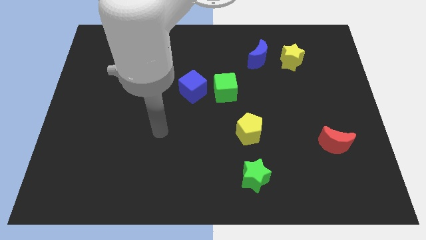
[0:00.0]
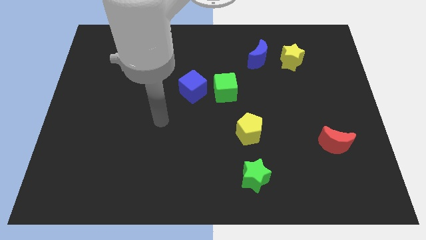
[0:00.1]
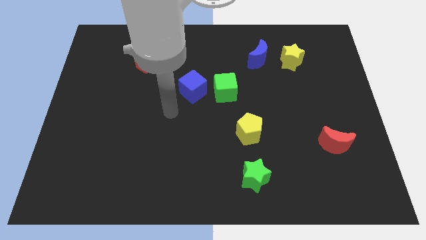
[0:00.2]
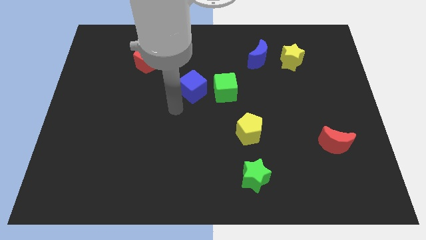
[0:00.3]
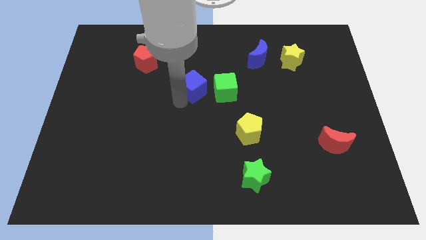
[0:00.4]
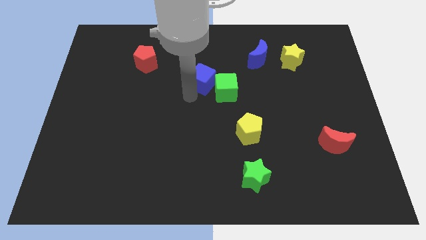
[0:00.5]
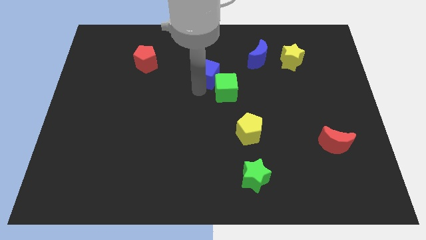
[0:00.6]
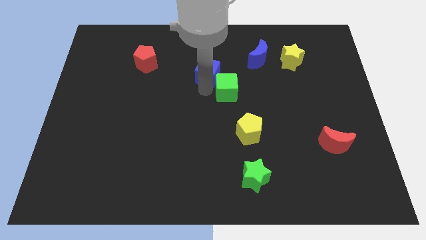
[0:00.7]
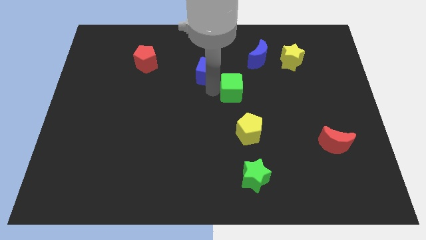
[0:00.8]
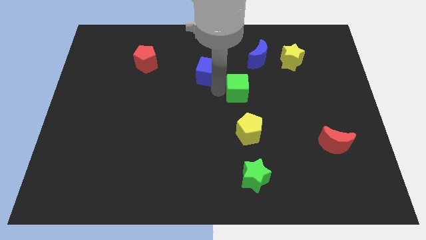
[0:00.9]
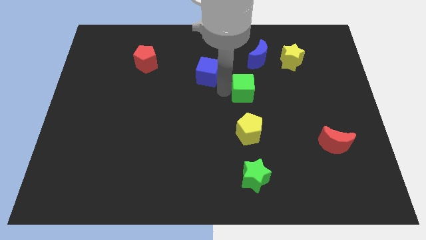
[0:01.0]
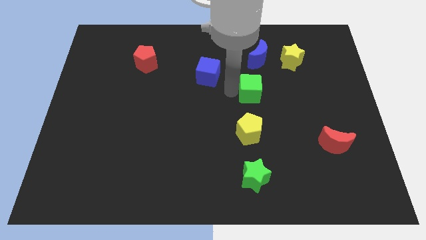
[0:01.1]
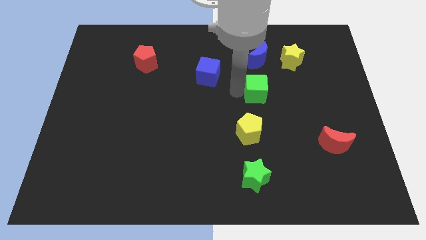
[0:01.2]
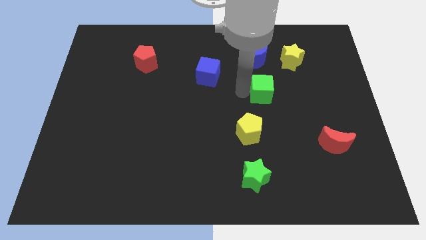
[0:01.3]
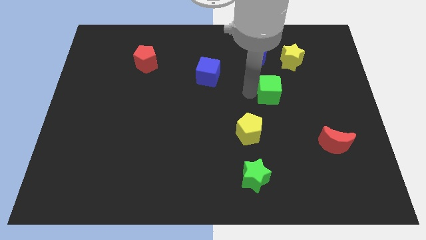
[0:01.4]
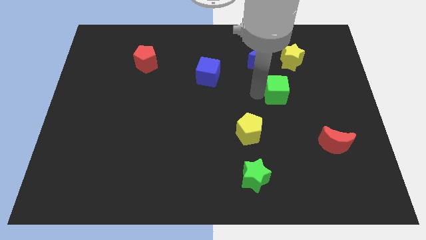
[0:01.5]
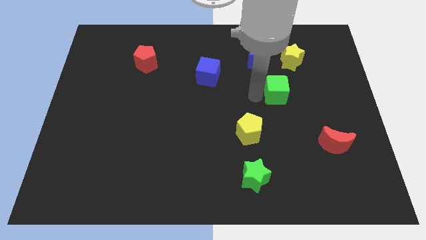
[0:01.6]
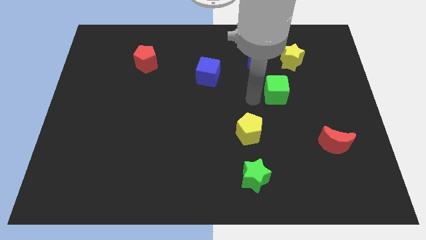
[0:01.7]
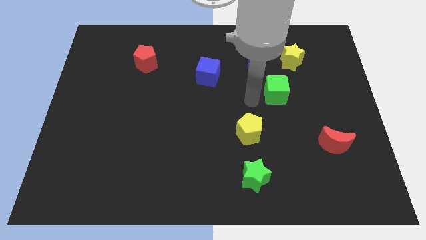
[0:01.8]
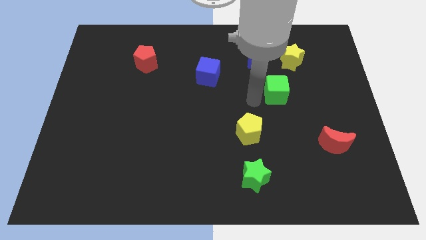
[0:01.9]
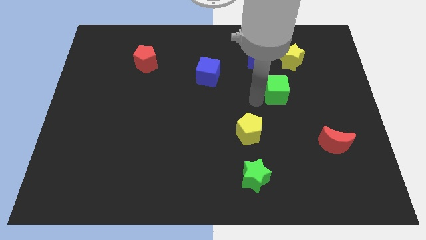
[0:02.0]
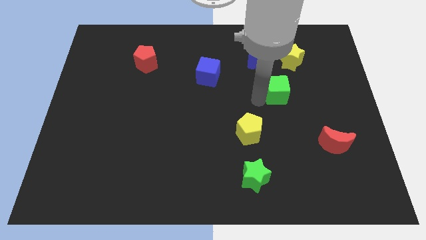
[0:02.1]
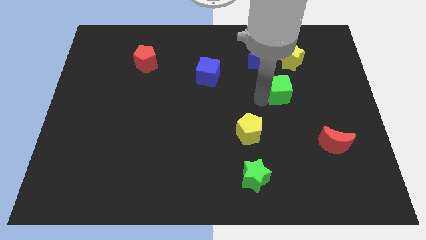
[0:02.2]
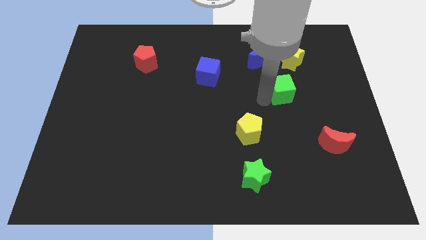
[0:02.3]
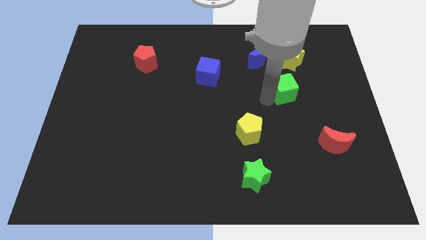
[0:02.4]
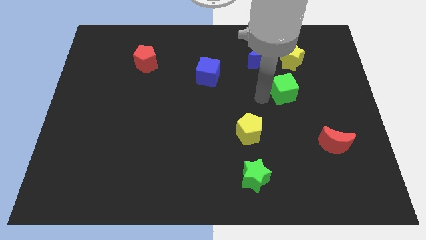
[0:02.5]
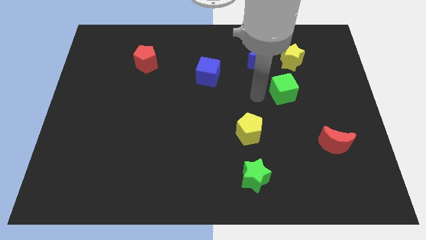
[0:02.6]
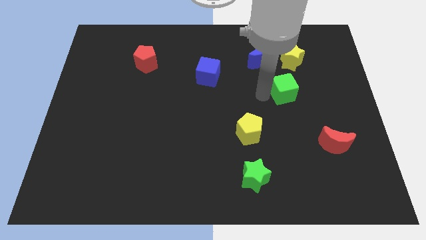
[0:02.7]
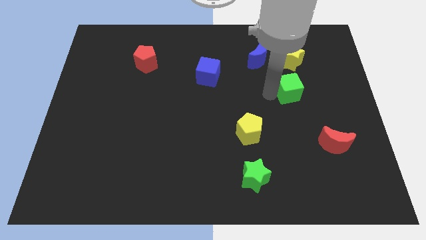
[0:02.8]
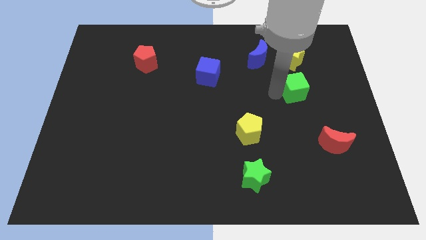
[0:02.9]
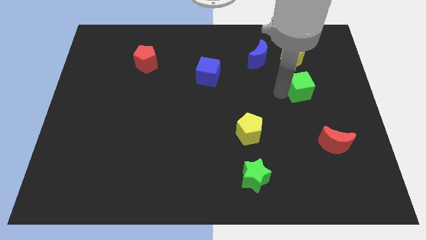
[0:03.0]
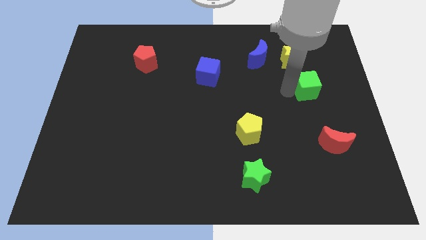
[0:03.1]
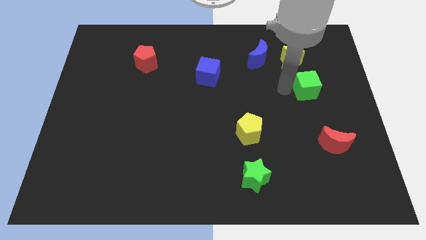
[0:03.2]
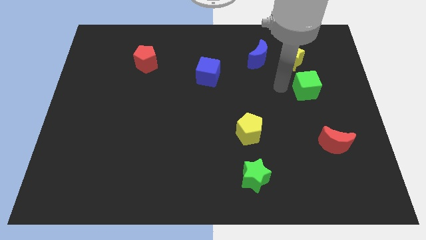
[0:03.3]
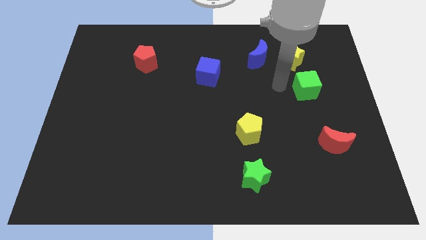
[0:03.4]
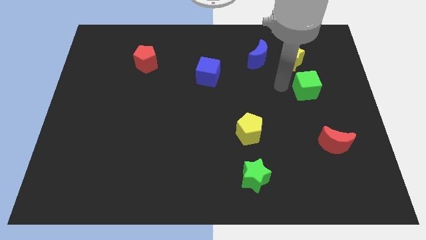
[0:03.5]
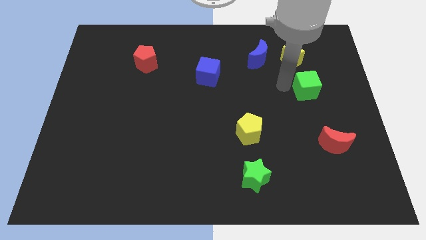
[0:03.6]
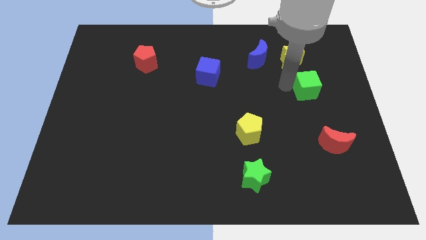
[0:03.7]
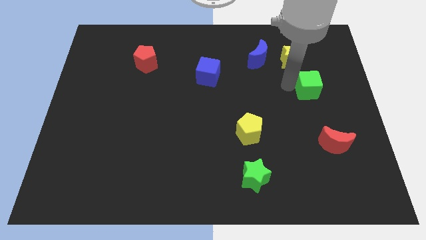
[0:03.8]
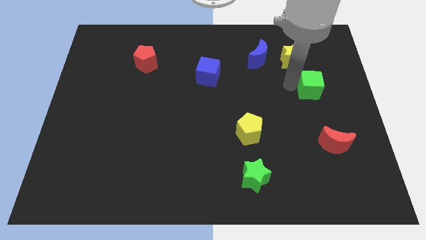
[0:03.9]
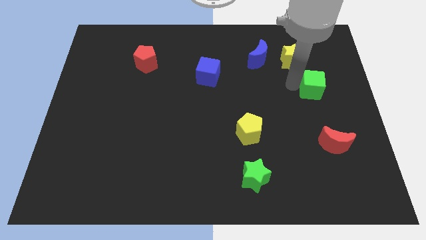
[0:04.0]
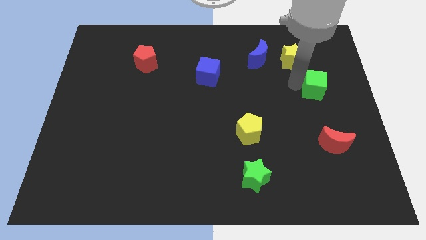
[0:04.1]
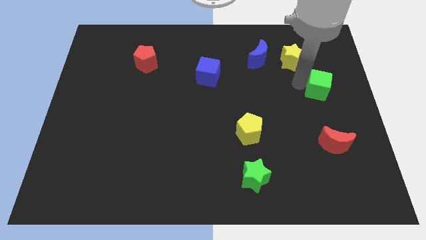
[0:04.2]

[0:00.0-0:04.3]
put the green cube to the center right

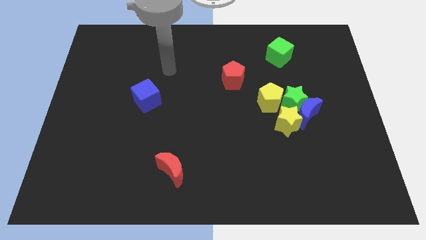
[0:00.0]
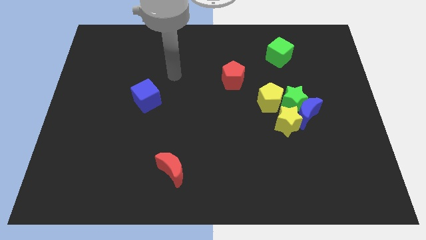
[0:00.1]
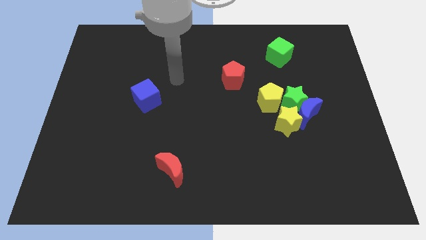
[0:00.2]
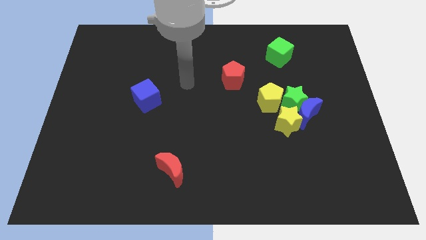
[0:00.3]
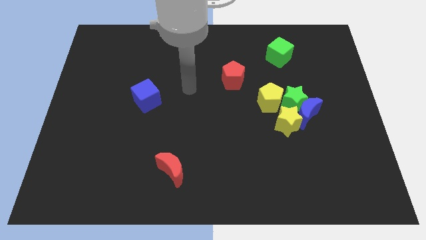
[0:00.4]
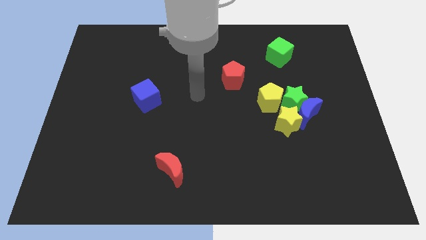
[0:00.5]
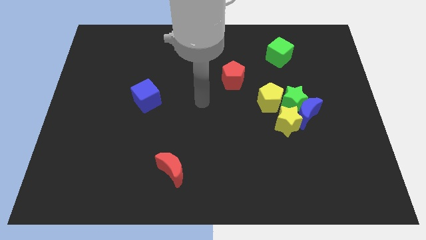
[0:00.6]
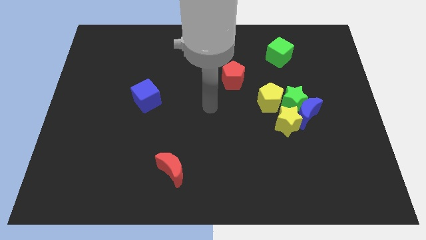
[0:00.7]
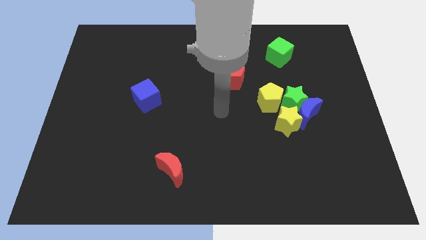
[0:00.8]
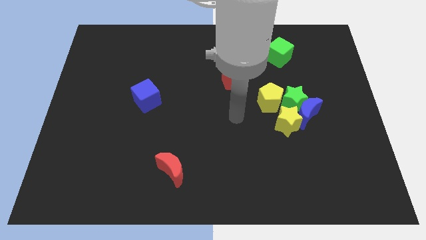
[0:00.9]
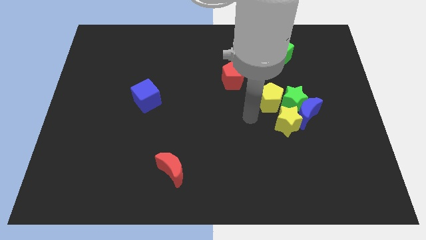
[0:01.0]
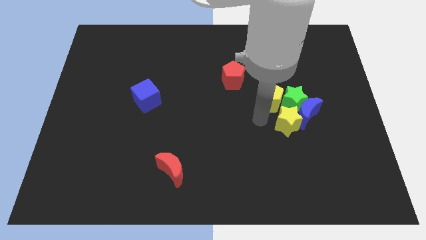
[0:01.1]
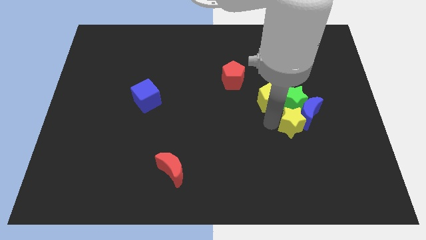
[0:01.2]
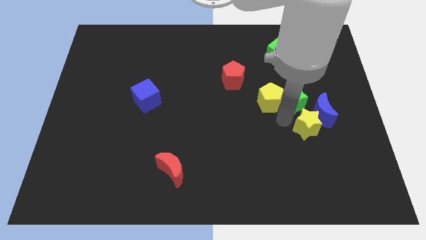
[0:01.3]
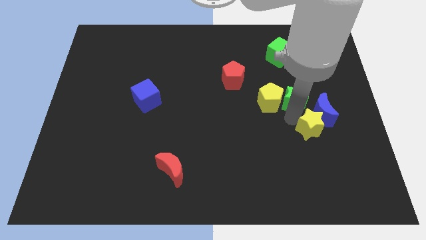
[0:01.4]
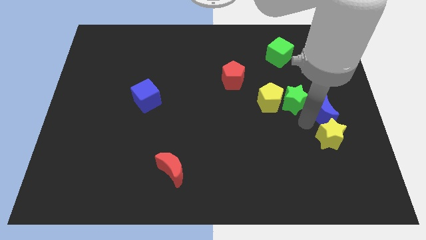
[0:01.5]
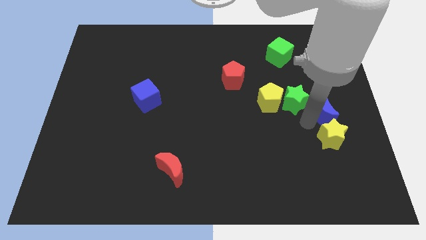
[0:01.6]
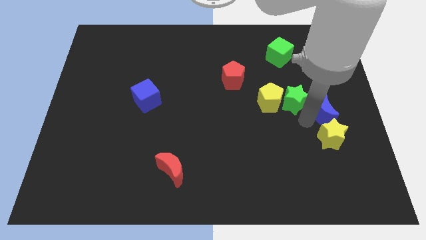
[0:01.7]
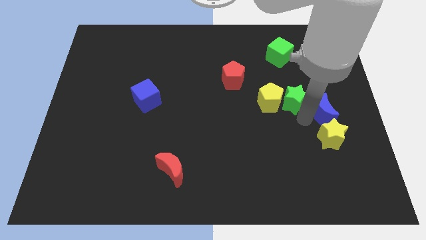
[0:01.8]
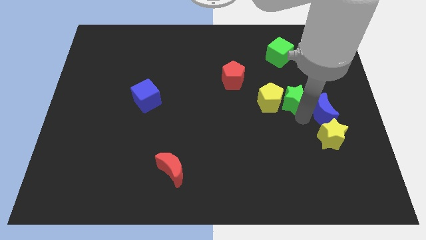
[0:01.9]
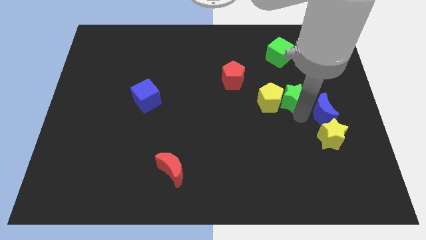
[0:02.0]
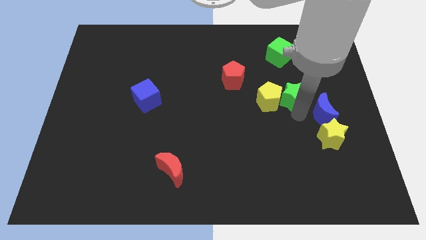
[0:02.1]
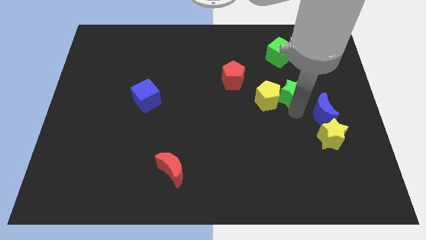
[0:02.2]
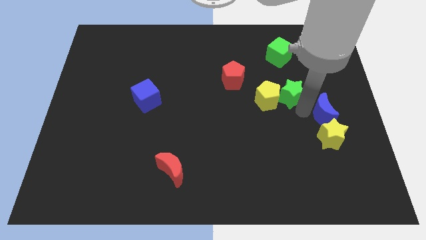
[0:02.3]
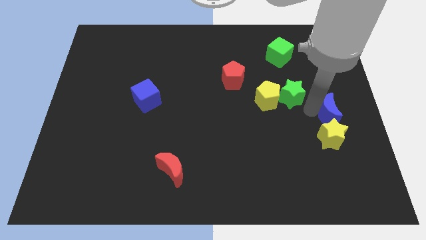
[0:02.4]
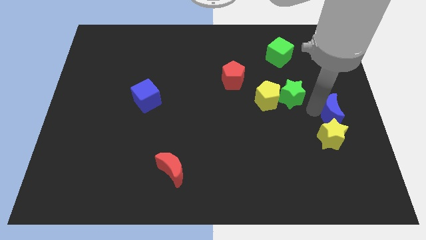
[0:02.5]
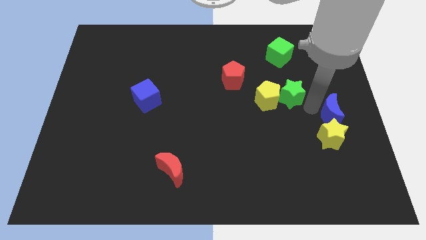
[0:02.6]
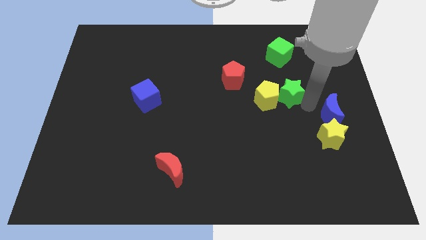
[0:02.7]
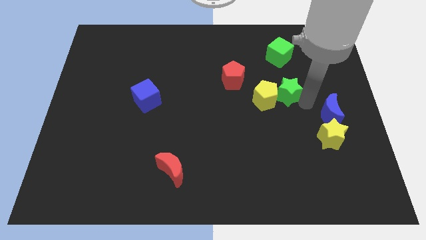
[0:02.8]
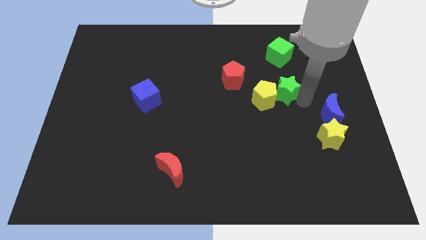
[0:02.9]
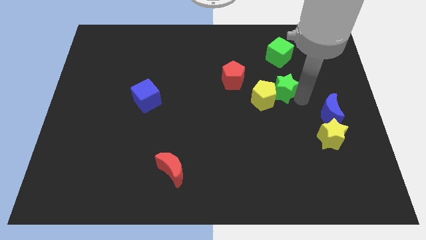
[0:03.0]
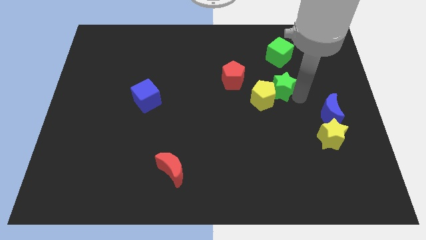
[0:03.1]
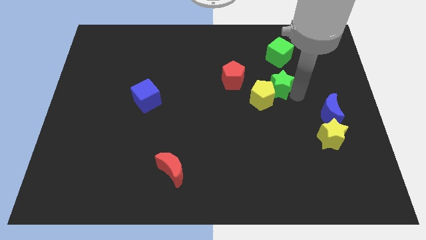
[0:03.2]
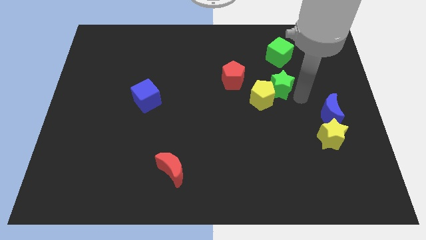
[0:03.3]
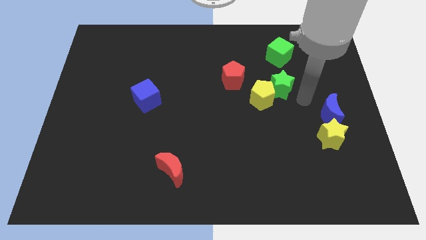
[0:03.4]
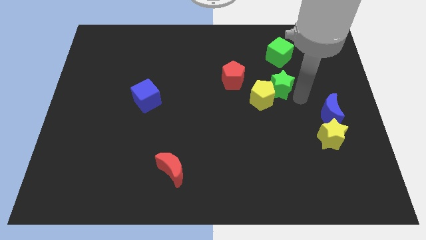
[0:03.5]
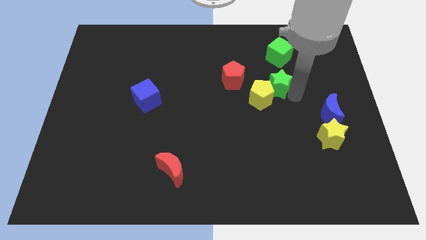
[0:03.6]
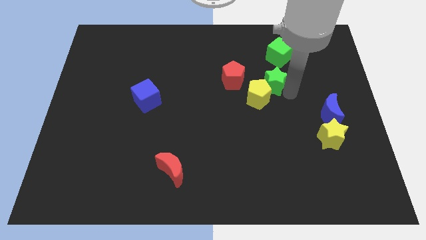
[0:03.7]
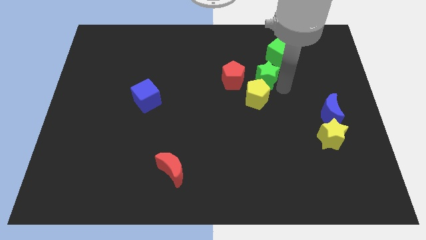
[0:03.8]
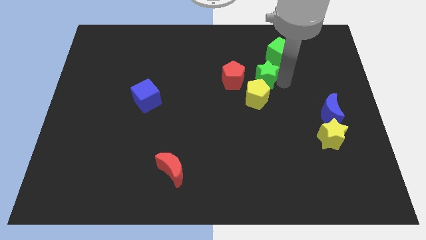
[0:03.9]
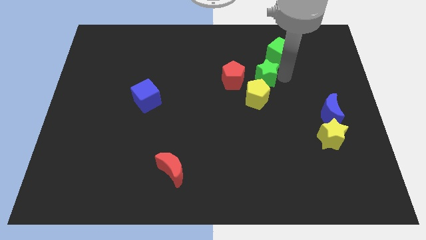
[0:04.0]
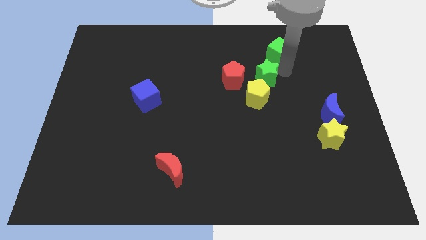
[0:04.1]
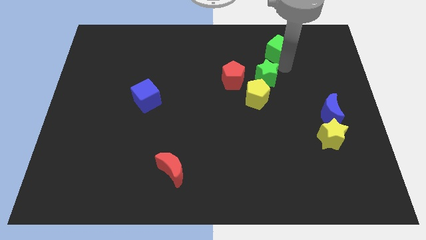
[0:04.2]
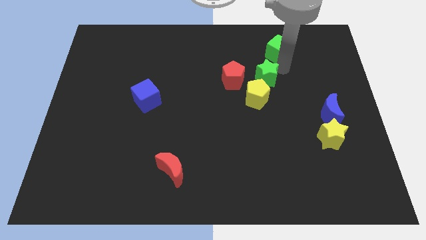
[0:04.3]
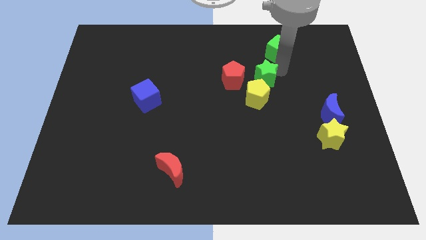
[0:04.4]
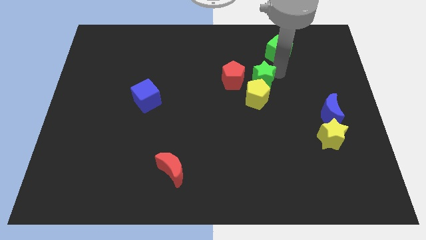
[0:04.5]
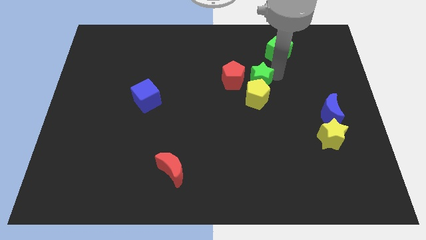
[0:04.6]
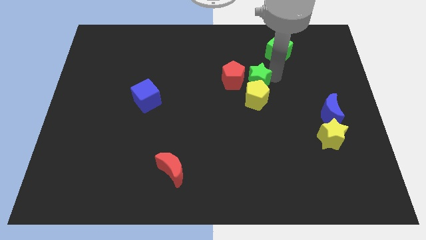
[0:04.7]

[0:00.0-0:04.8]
put the green star to the center of the board
